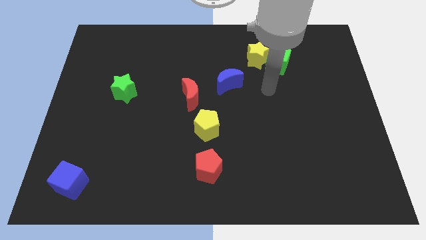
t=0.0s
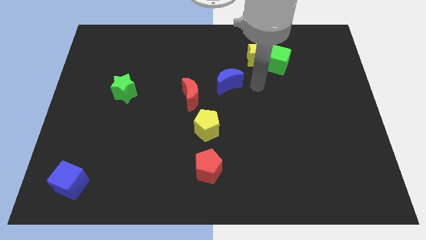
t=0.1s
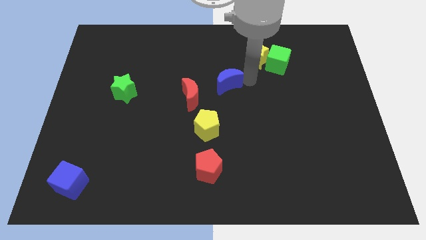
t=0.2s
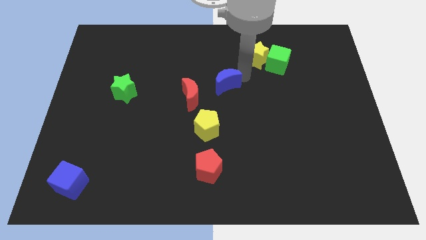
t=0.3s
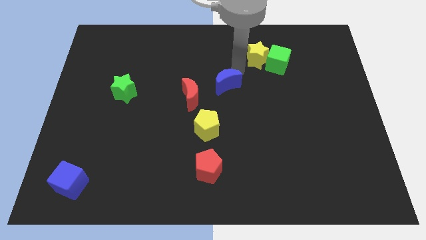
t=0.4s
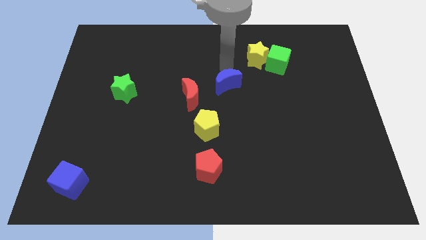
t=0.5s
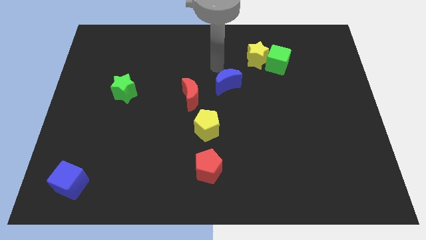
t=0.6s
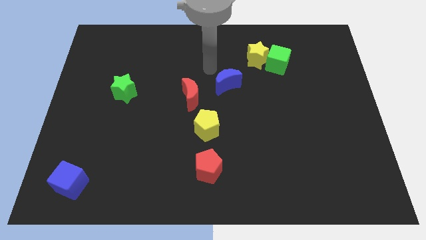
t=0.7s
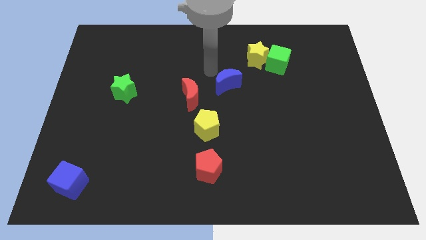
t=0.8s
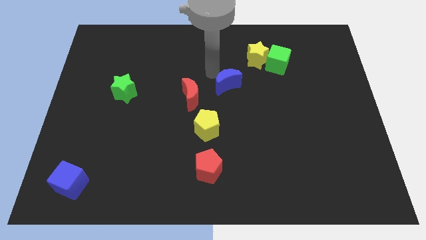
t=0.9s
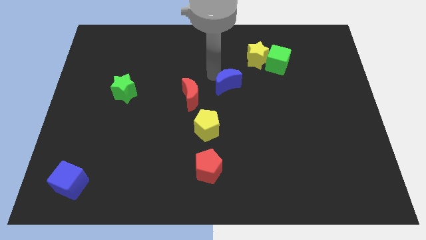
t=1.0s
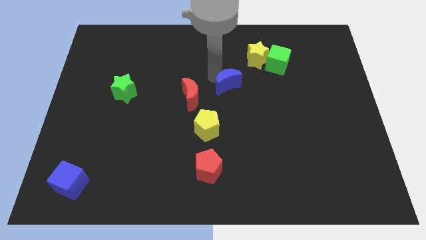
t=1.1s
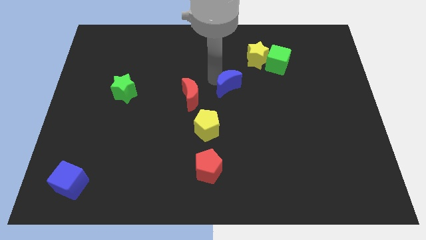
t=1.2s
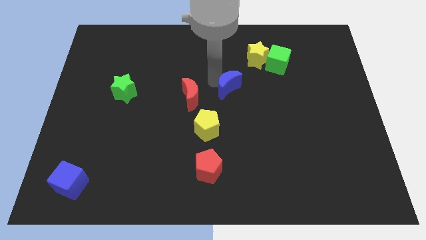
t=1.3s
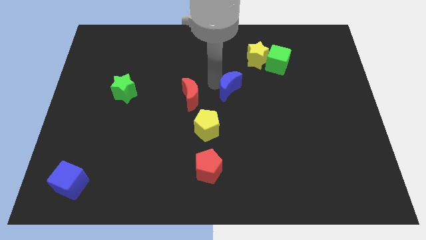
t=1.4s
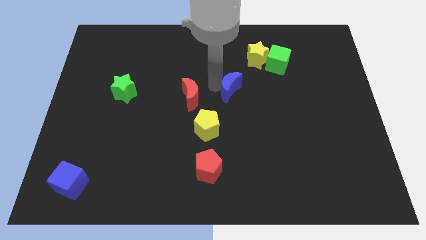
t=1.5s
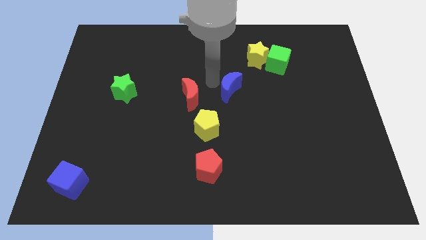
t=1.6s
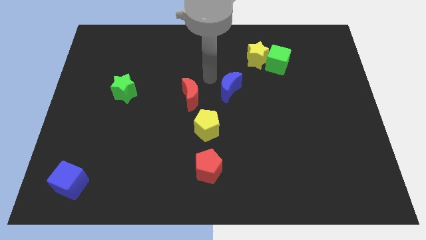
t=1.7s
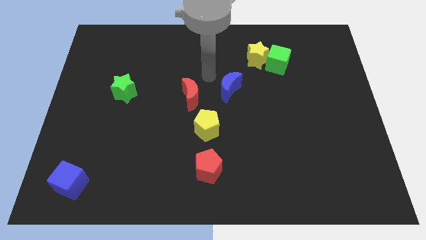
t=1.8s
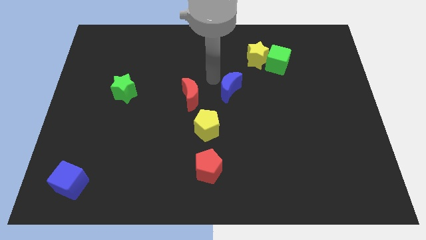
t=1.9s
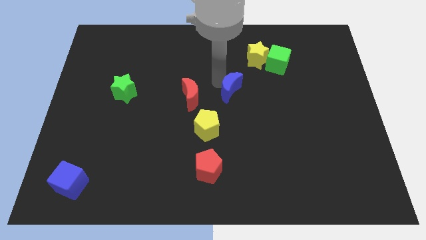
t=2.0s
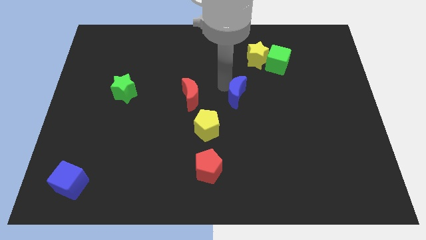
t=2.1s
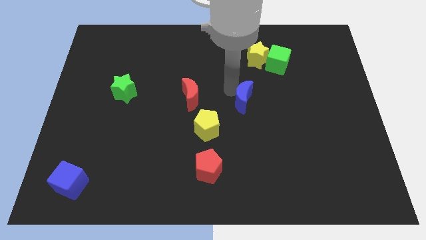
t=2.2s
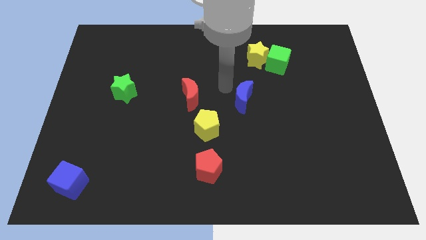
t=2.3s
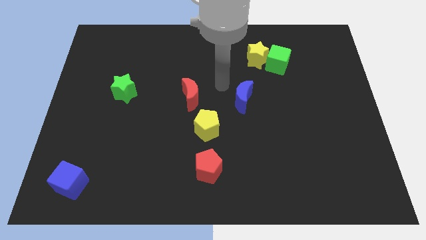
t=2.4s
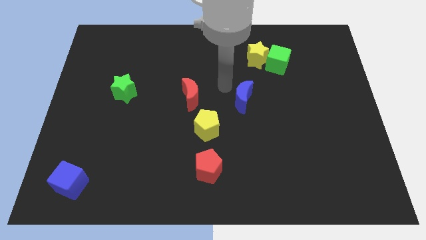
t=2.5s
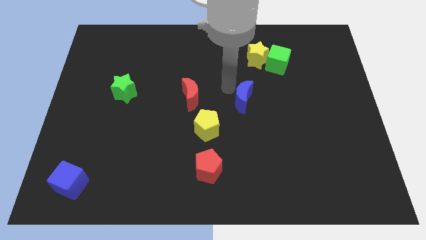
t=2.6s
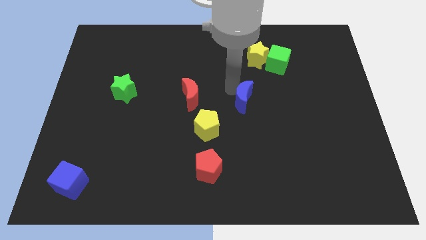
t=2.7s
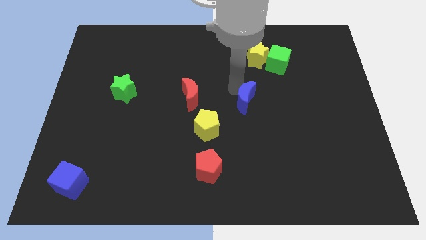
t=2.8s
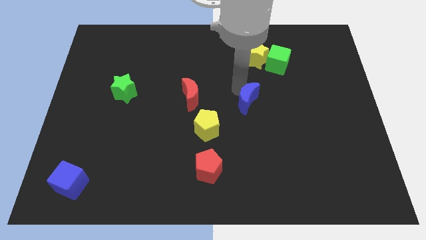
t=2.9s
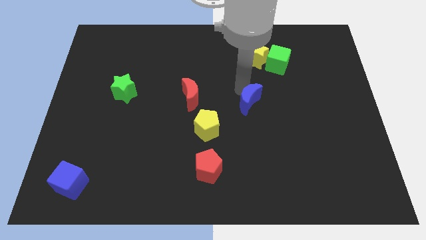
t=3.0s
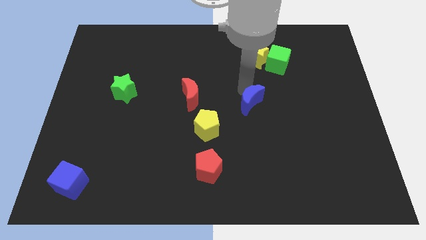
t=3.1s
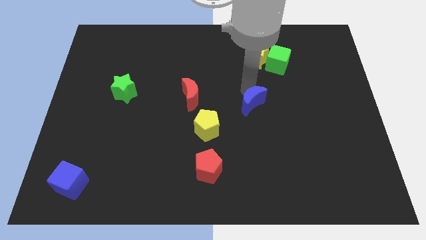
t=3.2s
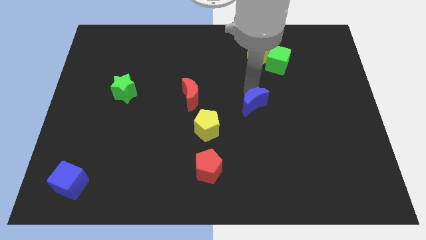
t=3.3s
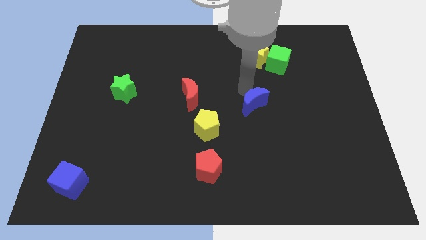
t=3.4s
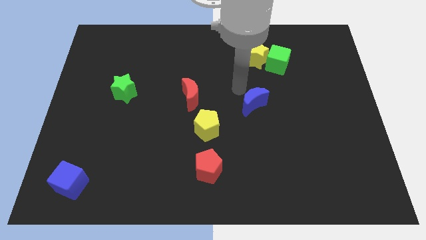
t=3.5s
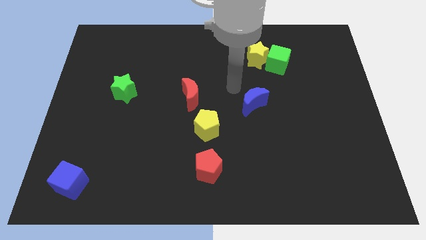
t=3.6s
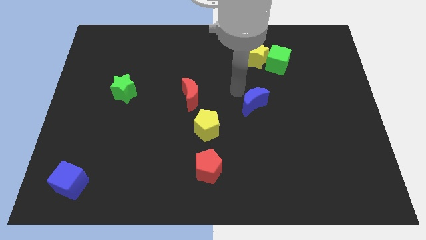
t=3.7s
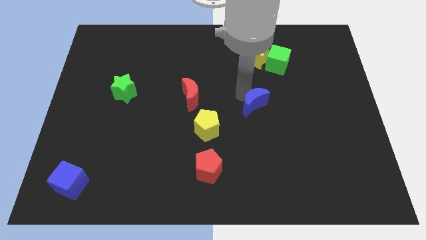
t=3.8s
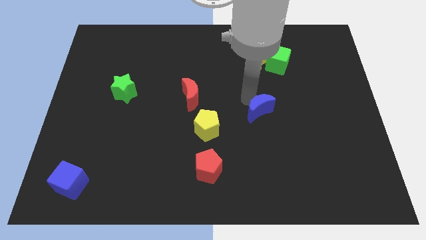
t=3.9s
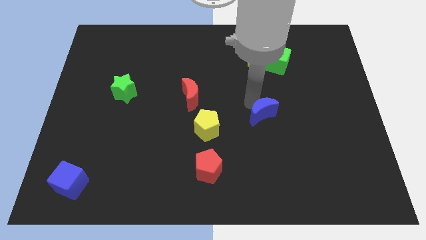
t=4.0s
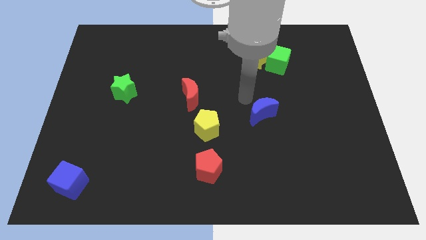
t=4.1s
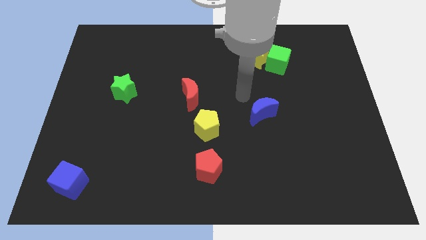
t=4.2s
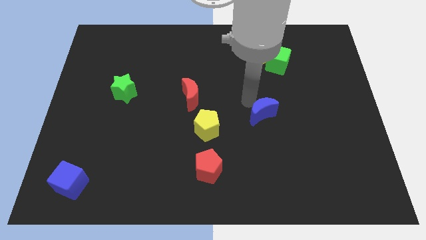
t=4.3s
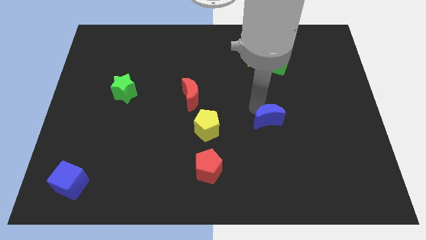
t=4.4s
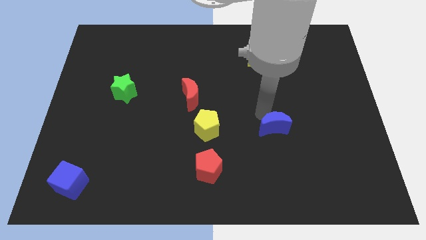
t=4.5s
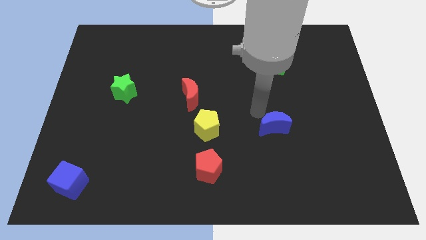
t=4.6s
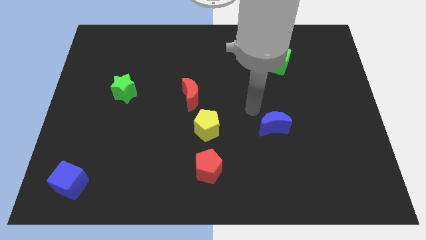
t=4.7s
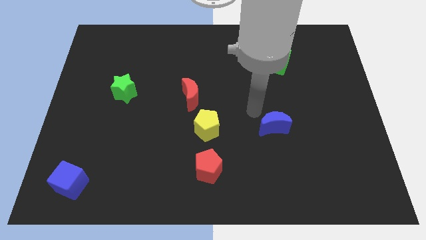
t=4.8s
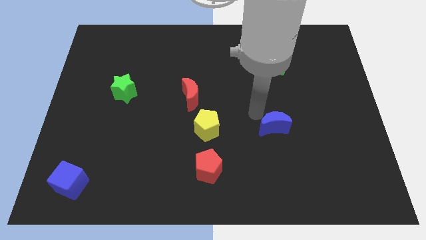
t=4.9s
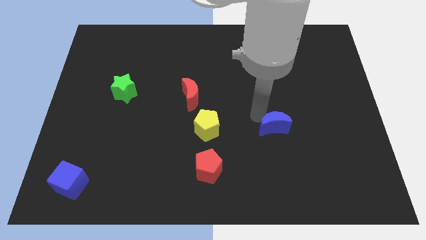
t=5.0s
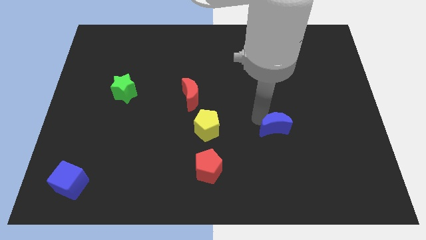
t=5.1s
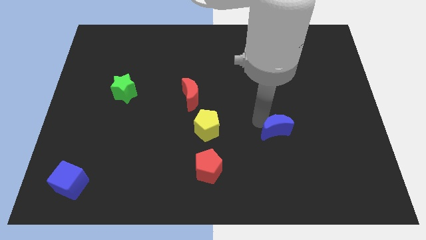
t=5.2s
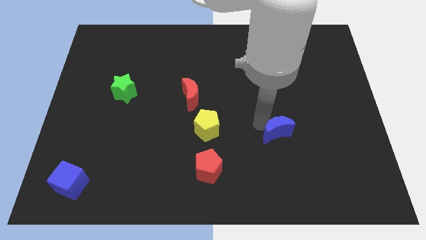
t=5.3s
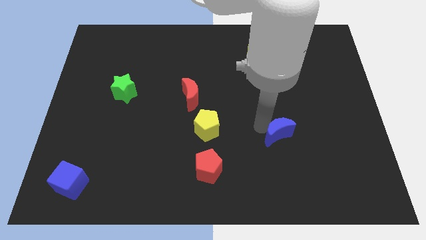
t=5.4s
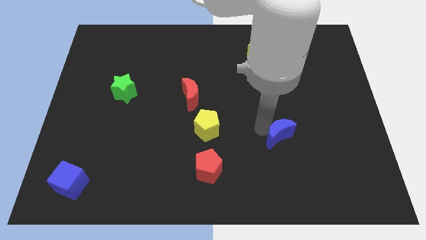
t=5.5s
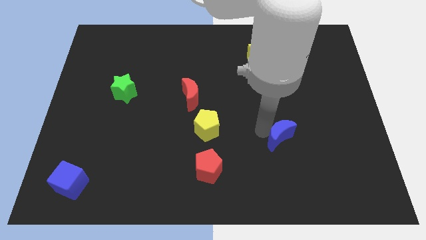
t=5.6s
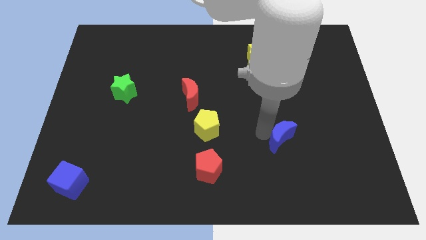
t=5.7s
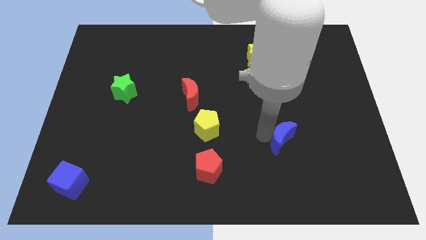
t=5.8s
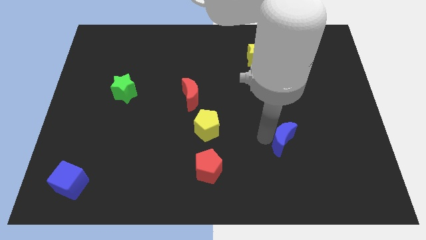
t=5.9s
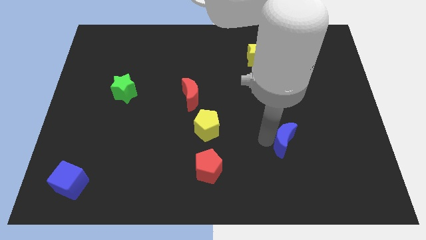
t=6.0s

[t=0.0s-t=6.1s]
slide the blue moon down and right diagonally

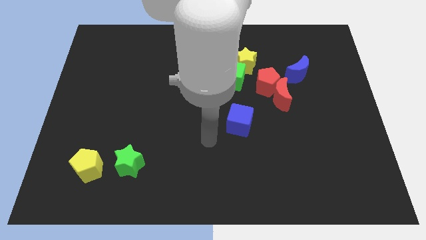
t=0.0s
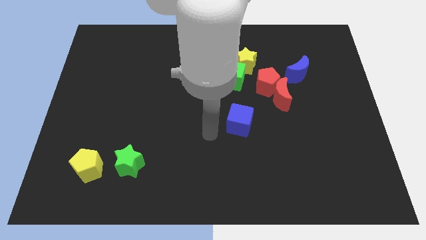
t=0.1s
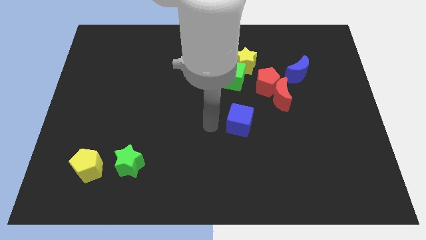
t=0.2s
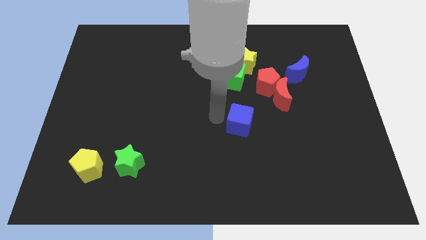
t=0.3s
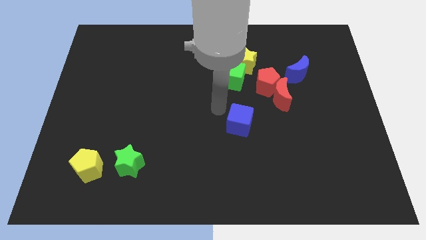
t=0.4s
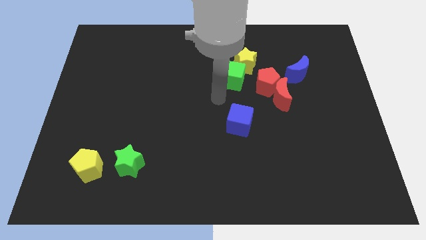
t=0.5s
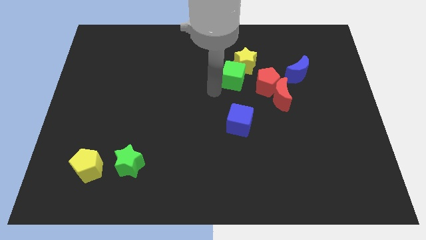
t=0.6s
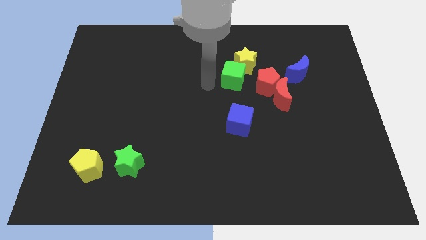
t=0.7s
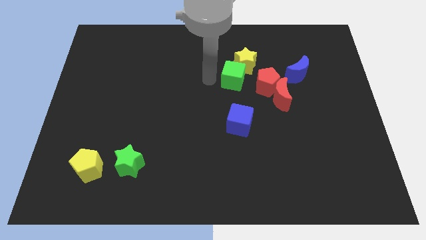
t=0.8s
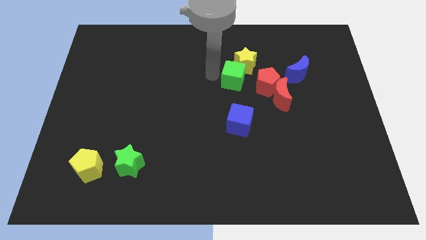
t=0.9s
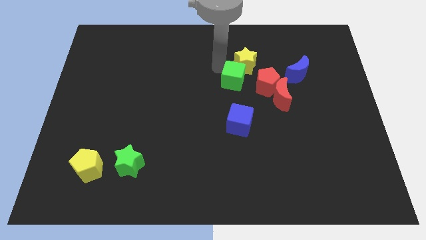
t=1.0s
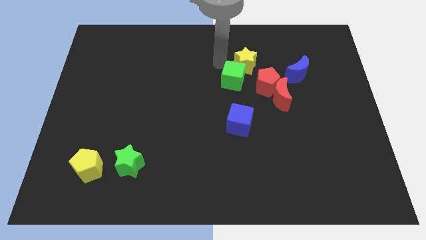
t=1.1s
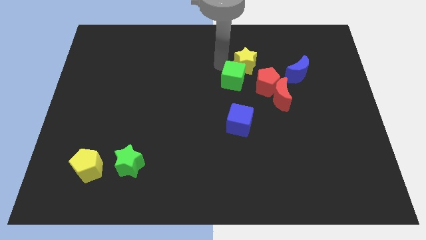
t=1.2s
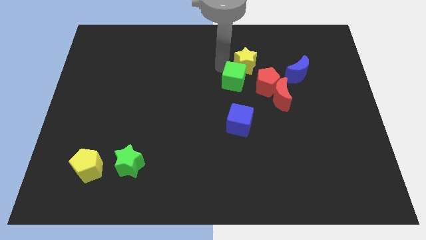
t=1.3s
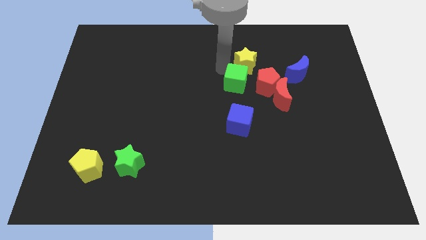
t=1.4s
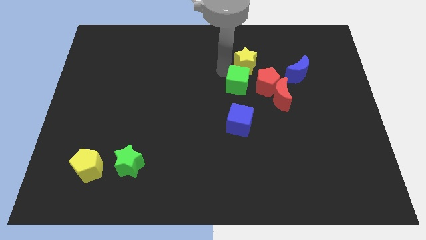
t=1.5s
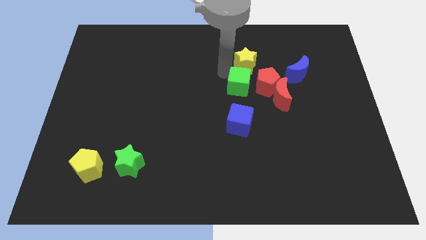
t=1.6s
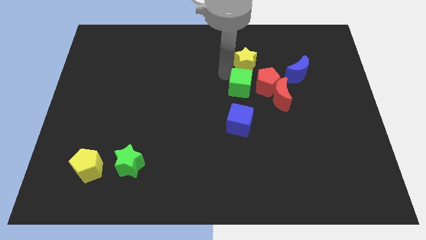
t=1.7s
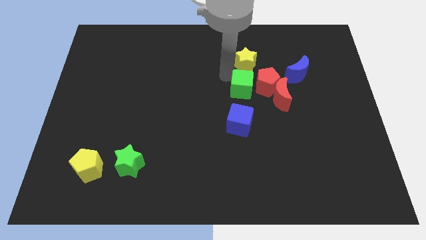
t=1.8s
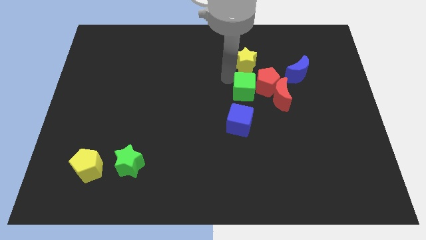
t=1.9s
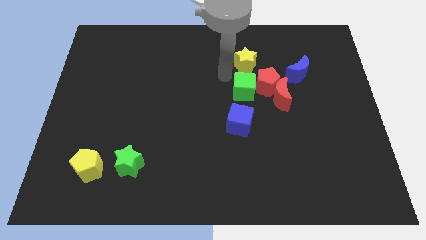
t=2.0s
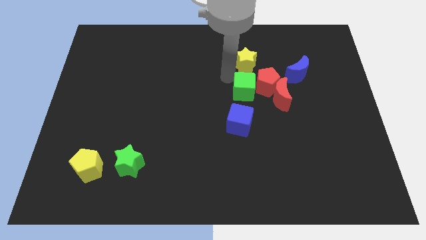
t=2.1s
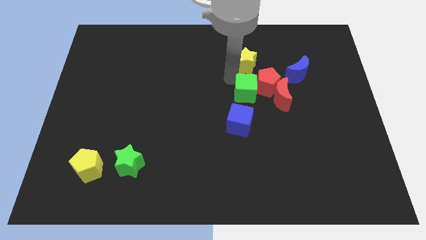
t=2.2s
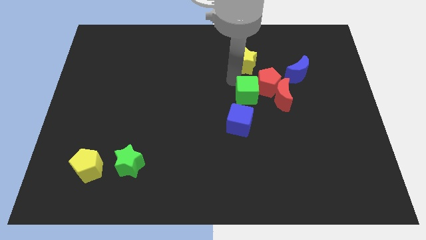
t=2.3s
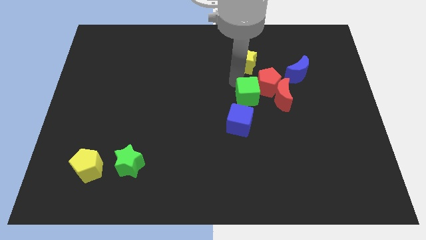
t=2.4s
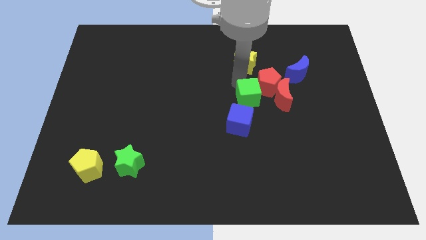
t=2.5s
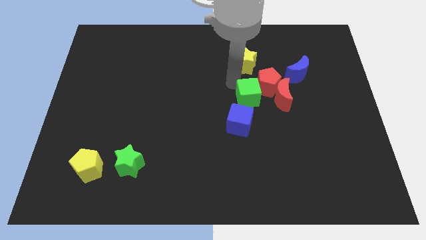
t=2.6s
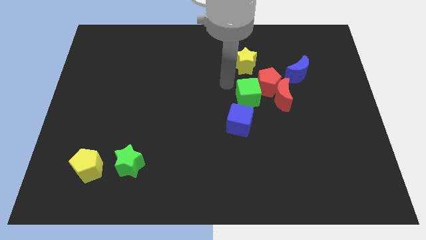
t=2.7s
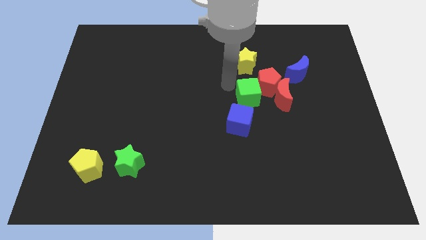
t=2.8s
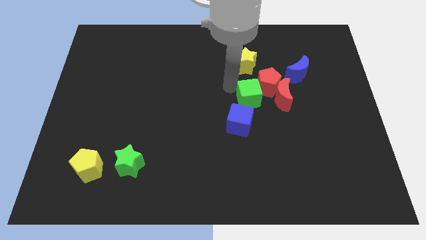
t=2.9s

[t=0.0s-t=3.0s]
slide the green cube somewhat downwards and then to the right
